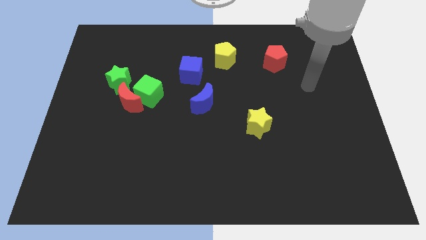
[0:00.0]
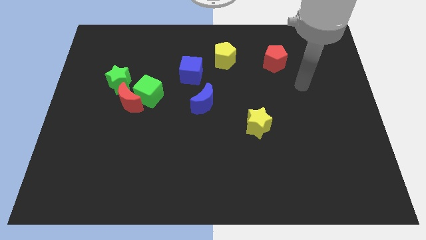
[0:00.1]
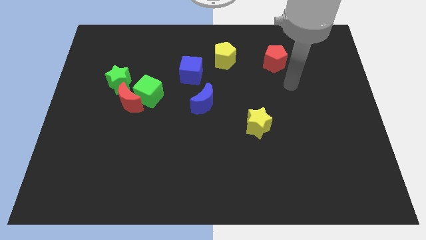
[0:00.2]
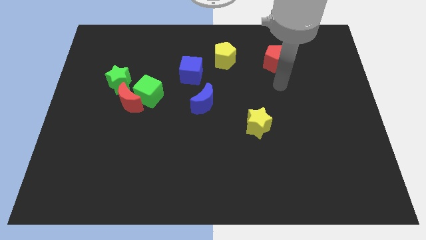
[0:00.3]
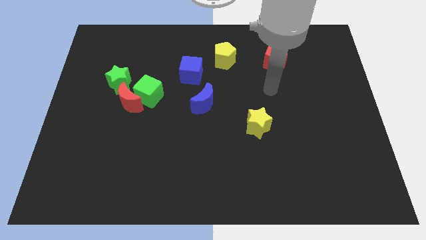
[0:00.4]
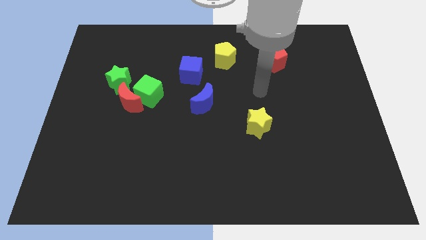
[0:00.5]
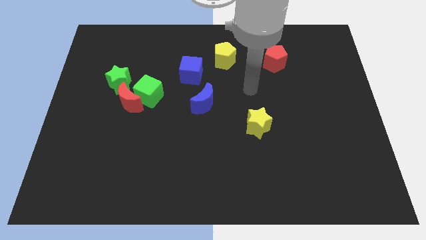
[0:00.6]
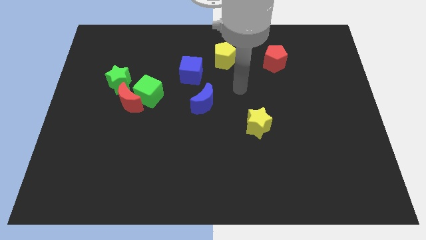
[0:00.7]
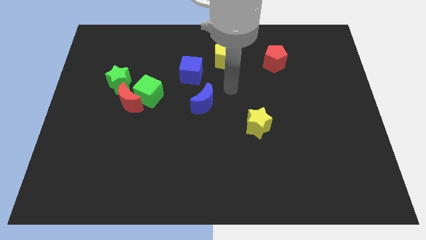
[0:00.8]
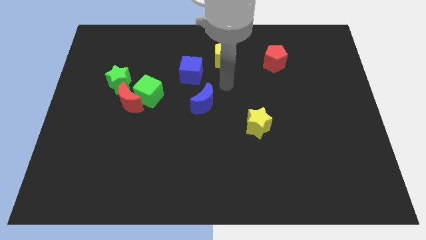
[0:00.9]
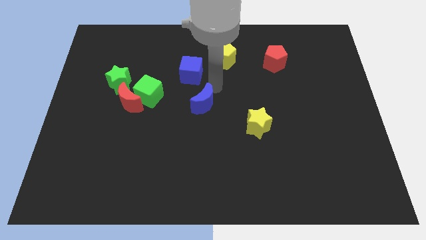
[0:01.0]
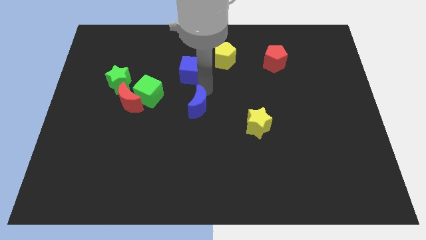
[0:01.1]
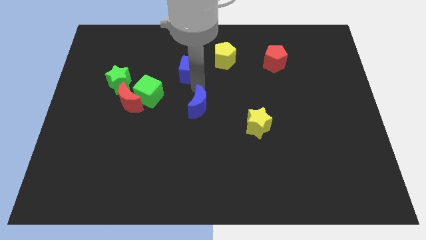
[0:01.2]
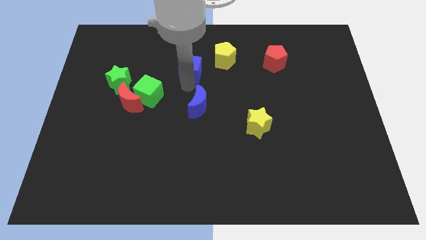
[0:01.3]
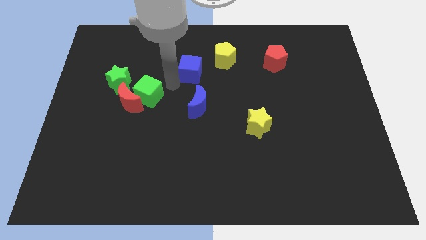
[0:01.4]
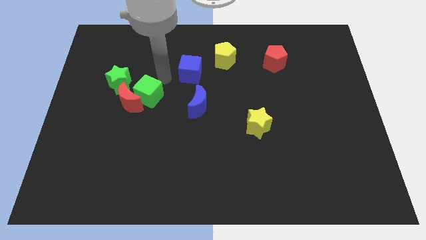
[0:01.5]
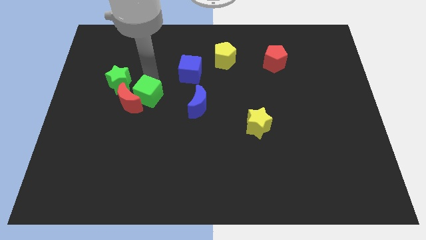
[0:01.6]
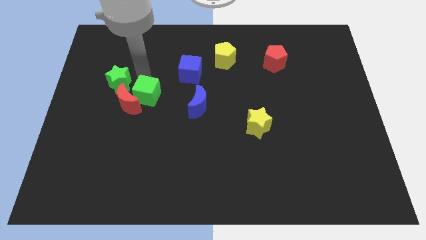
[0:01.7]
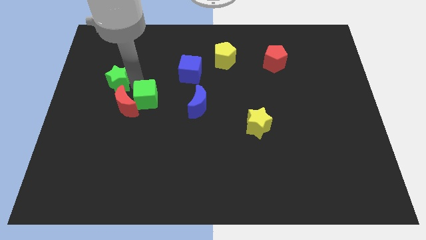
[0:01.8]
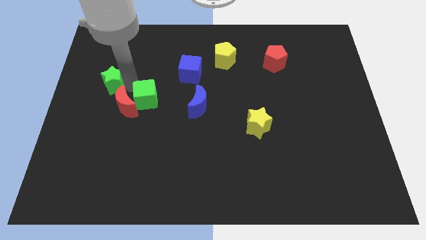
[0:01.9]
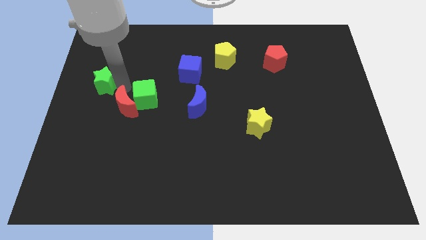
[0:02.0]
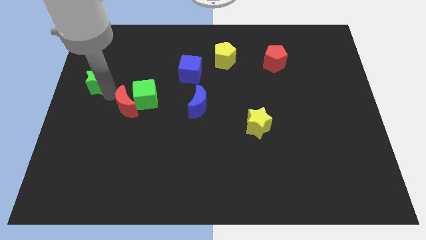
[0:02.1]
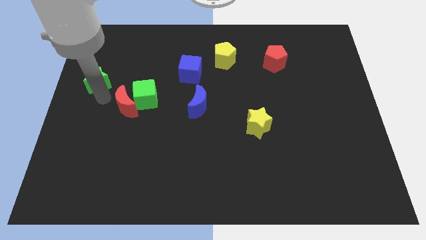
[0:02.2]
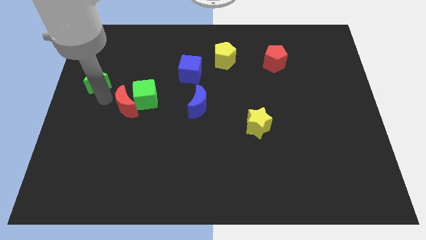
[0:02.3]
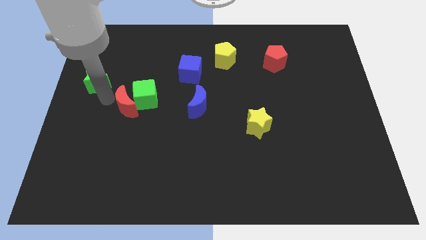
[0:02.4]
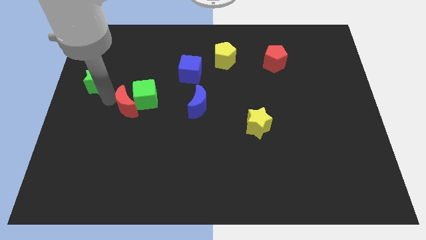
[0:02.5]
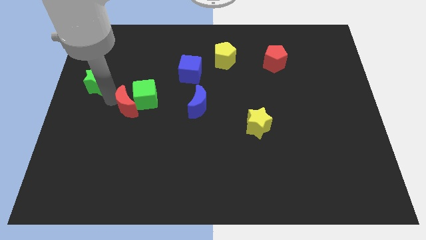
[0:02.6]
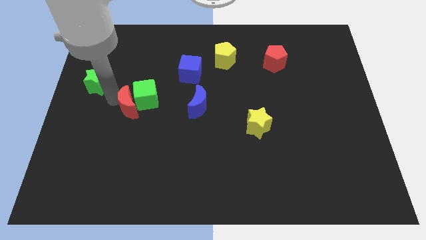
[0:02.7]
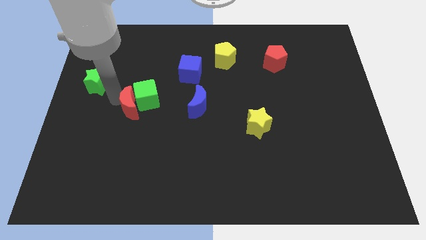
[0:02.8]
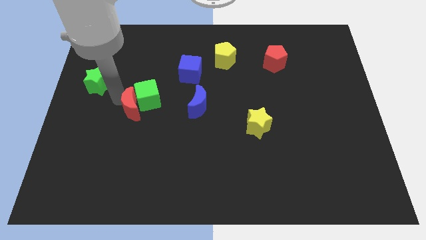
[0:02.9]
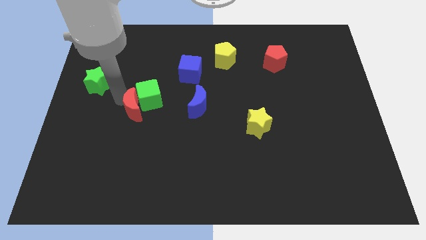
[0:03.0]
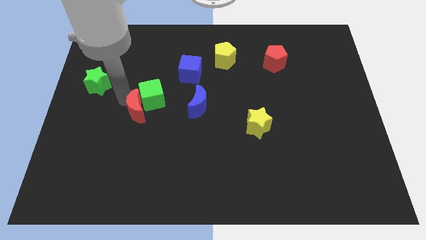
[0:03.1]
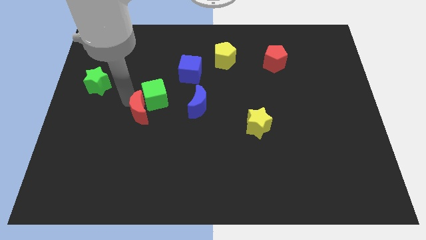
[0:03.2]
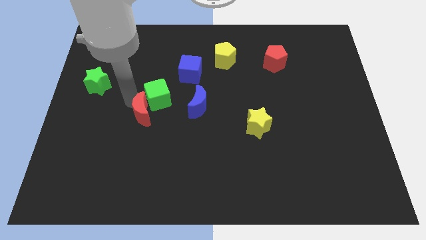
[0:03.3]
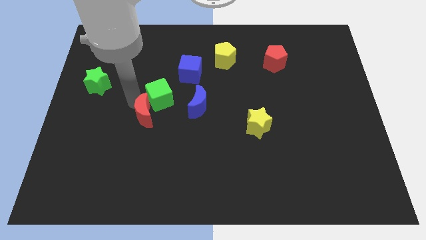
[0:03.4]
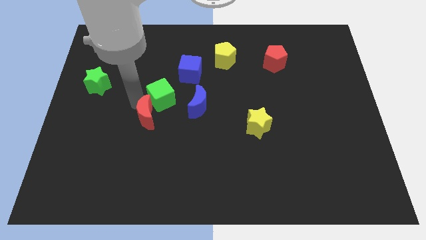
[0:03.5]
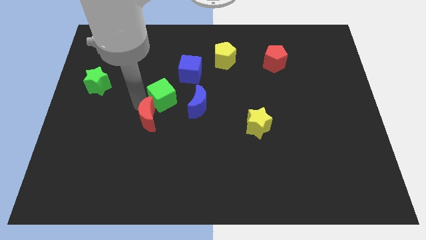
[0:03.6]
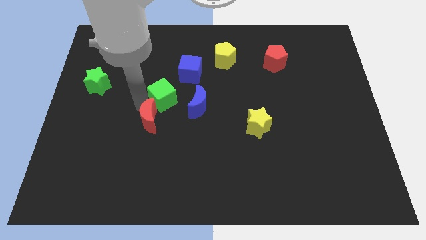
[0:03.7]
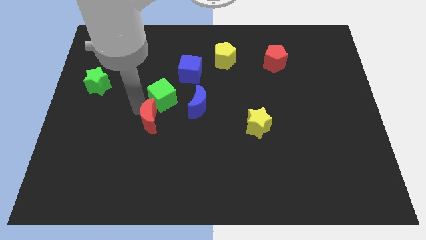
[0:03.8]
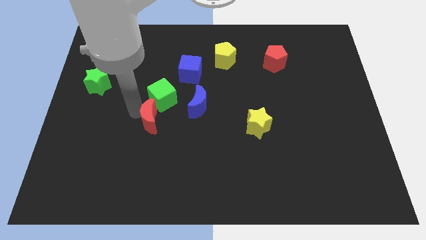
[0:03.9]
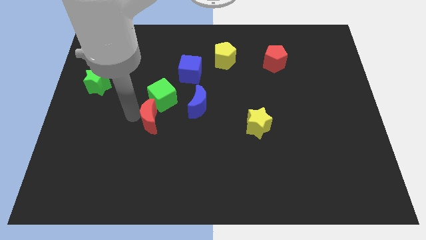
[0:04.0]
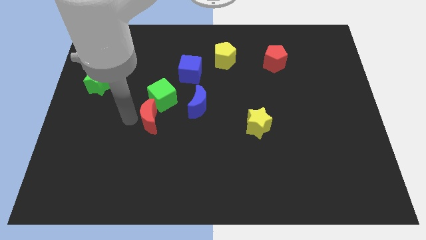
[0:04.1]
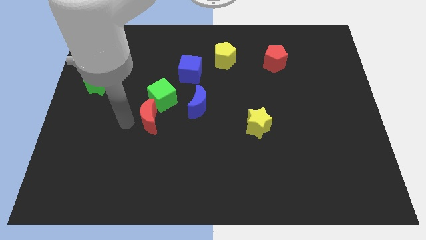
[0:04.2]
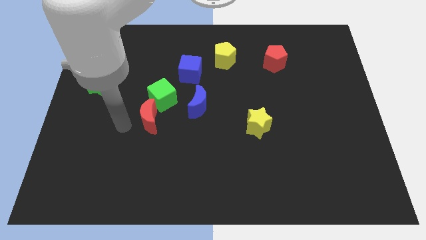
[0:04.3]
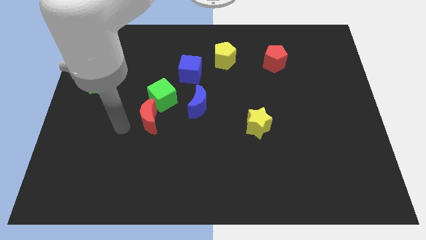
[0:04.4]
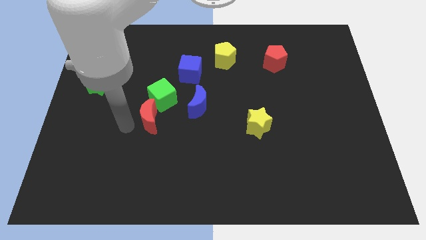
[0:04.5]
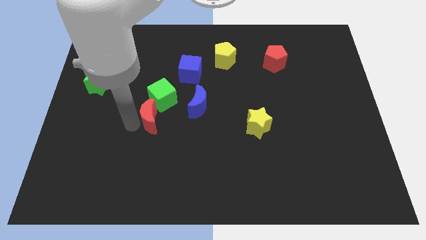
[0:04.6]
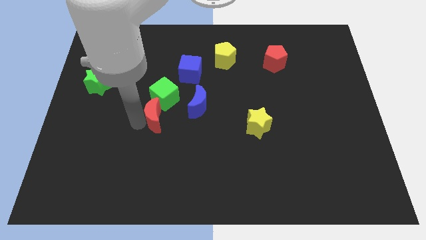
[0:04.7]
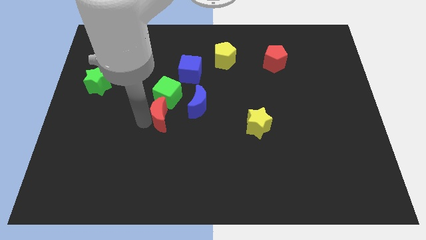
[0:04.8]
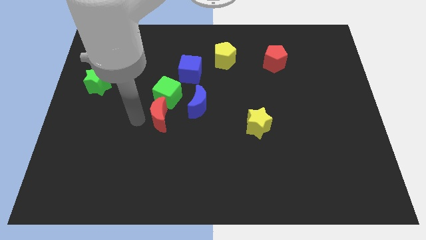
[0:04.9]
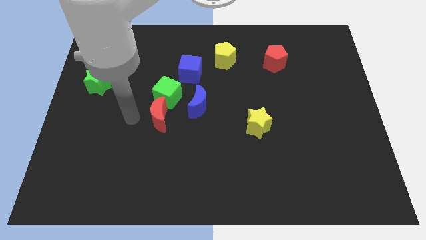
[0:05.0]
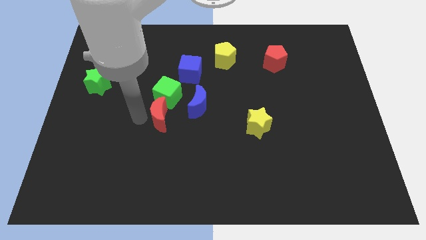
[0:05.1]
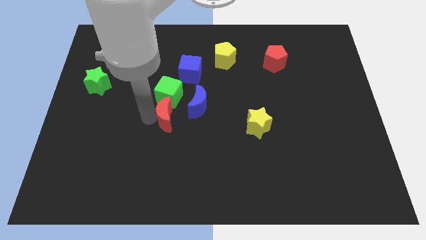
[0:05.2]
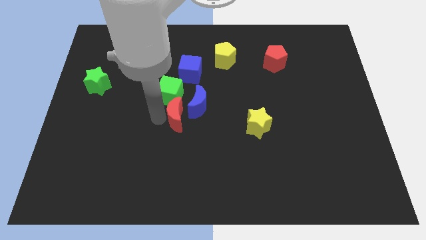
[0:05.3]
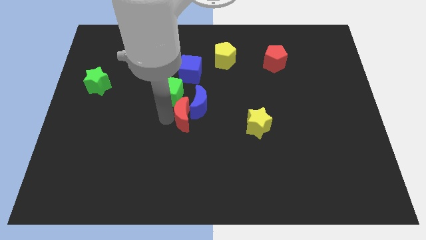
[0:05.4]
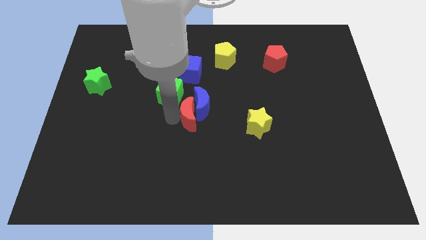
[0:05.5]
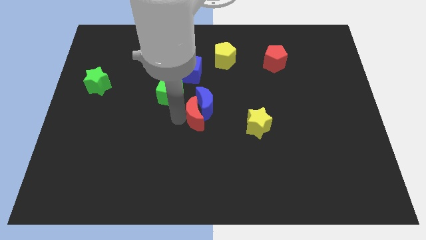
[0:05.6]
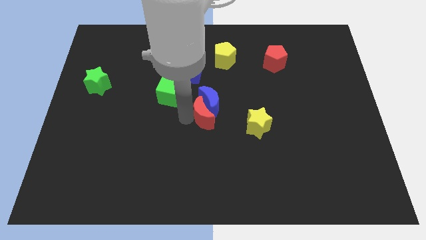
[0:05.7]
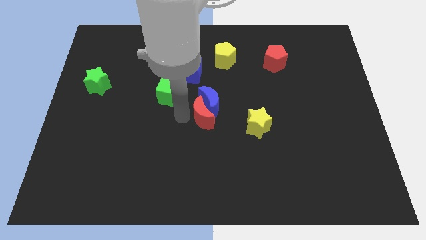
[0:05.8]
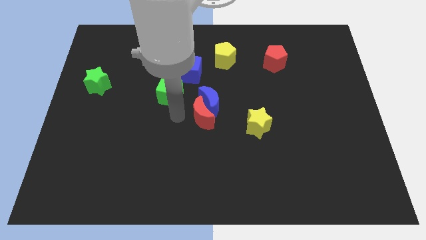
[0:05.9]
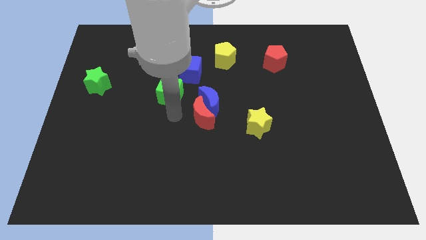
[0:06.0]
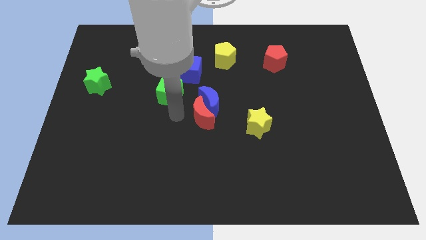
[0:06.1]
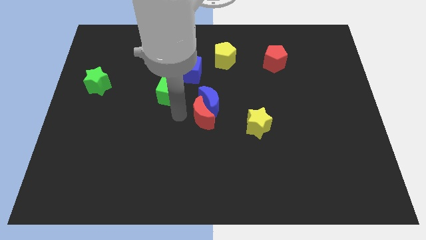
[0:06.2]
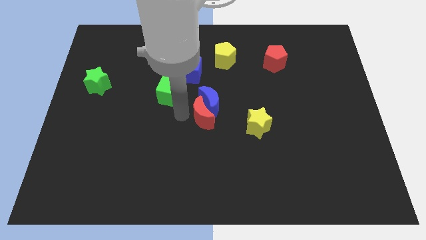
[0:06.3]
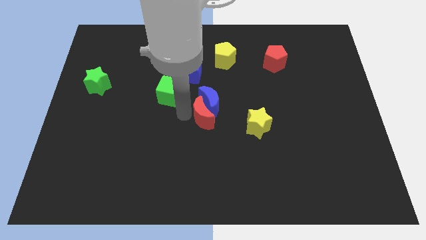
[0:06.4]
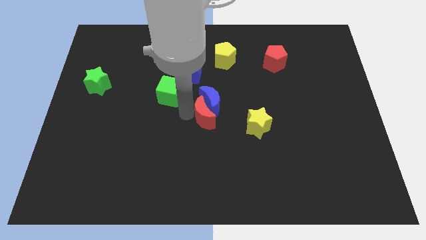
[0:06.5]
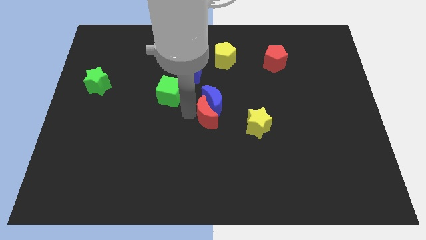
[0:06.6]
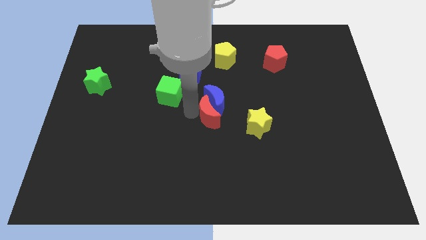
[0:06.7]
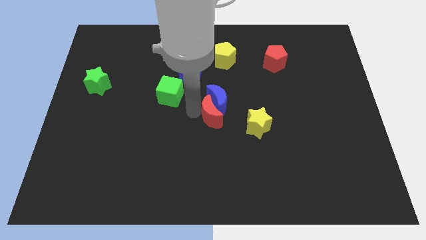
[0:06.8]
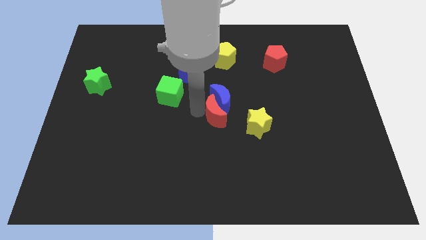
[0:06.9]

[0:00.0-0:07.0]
slide the red moon to the right

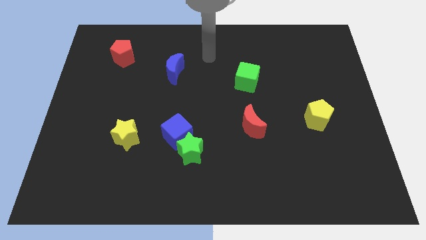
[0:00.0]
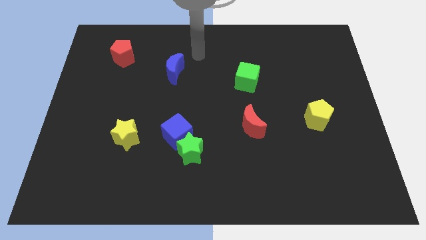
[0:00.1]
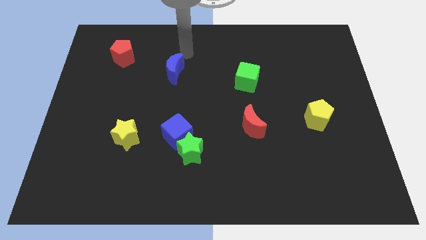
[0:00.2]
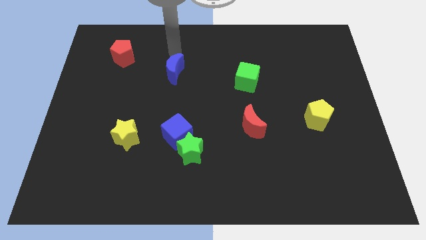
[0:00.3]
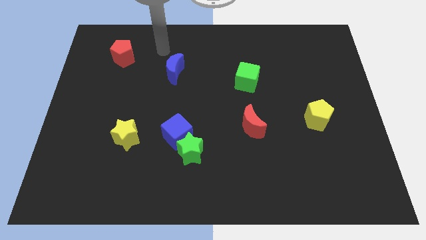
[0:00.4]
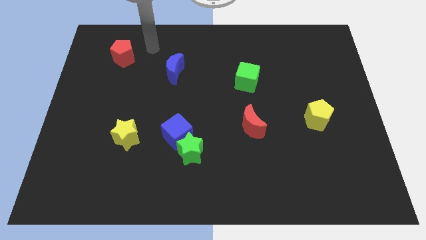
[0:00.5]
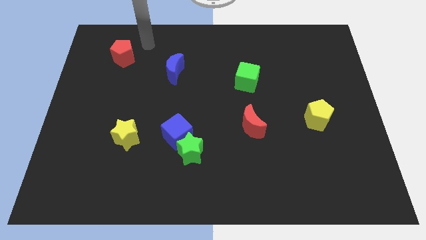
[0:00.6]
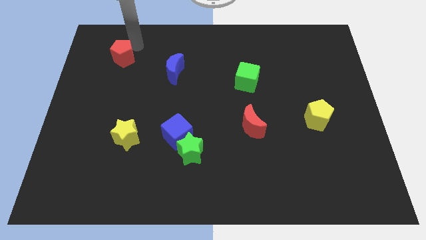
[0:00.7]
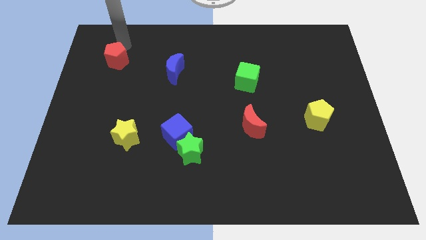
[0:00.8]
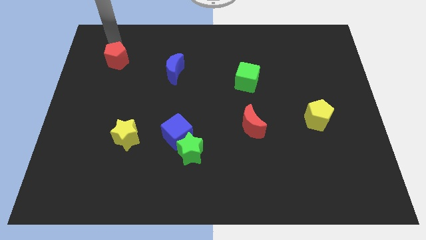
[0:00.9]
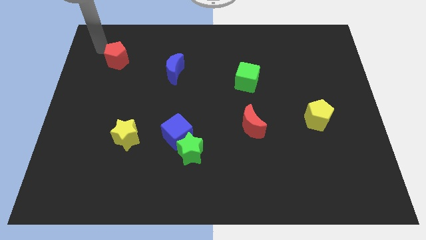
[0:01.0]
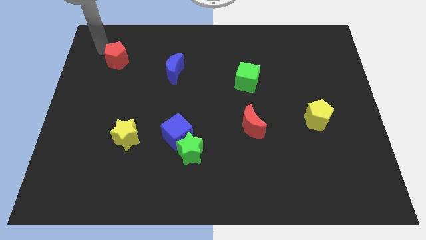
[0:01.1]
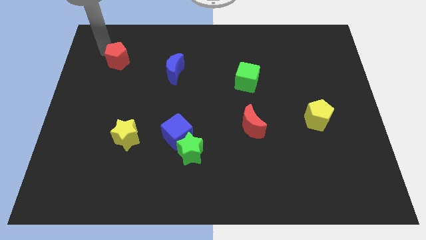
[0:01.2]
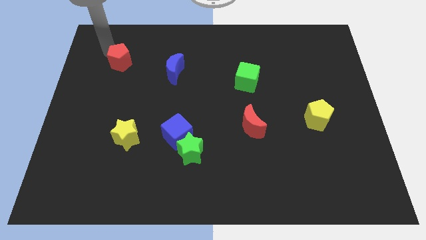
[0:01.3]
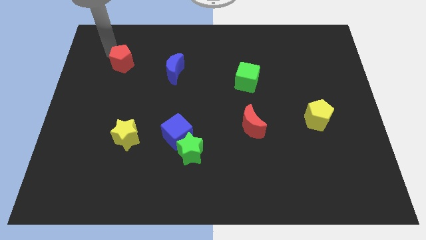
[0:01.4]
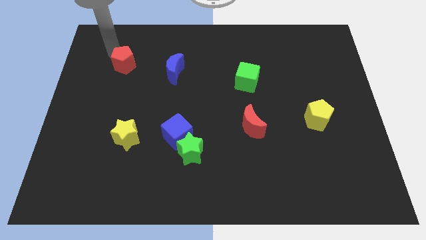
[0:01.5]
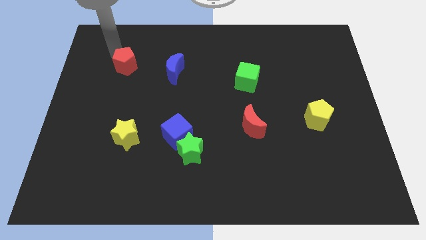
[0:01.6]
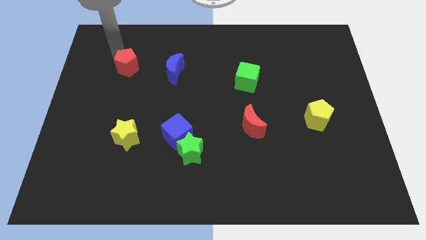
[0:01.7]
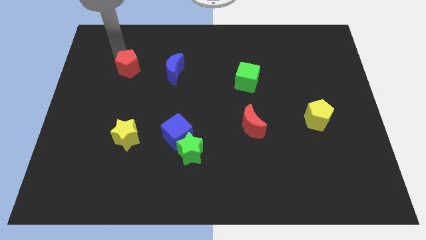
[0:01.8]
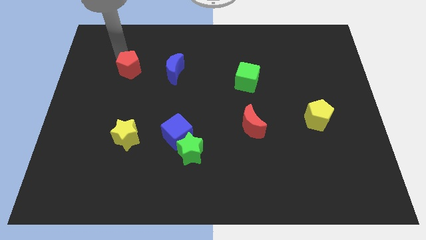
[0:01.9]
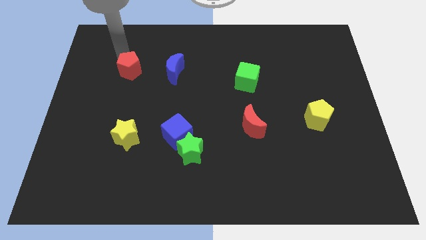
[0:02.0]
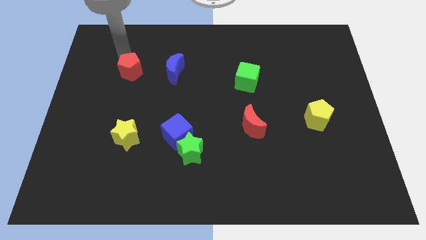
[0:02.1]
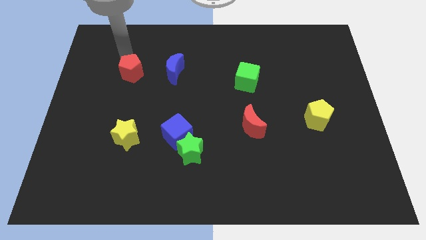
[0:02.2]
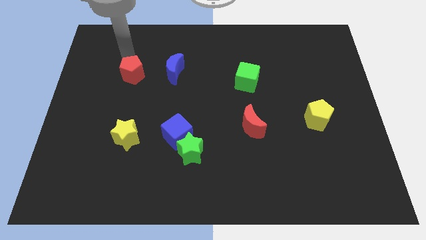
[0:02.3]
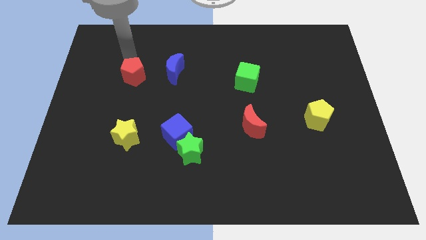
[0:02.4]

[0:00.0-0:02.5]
slide the red pentagon a little bit diagonally down and to the right
